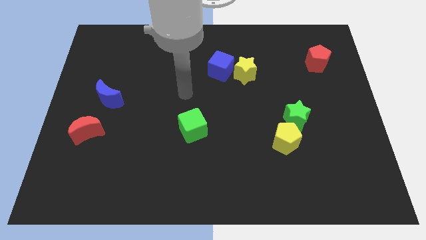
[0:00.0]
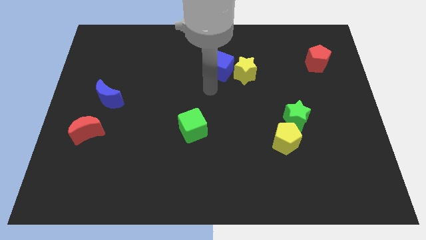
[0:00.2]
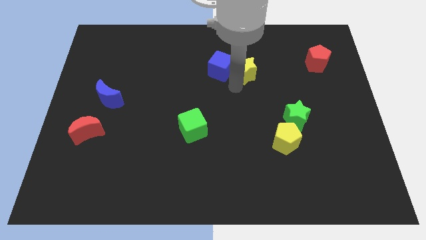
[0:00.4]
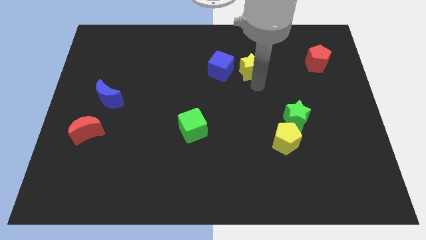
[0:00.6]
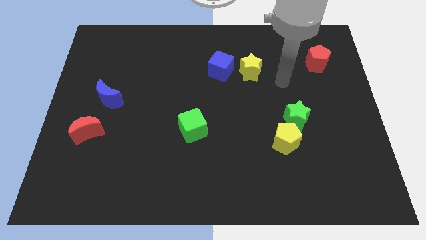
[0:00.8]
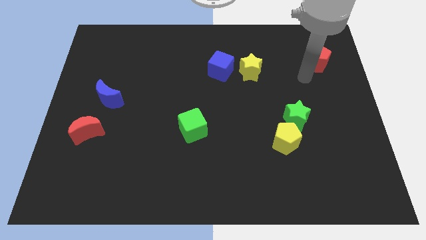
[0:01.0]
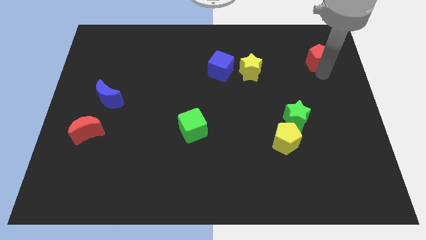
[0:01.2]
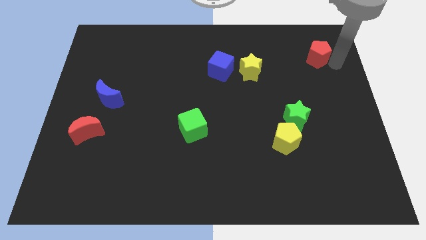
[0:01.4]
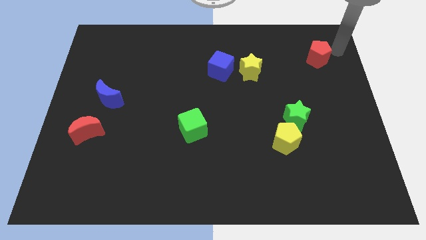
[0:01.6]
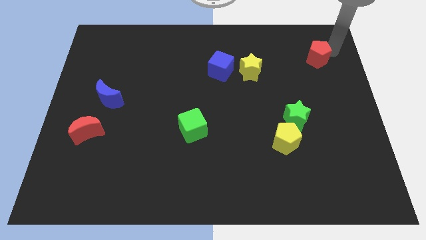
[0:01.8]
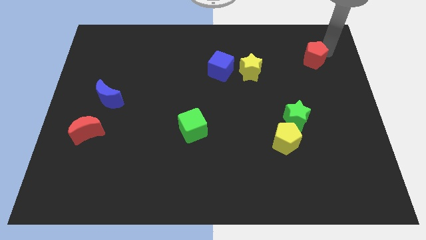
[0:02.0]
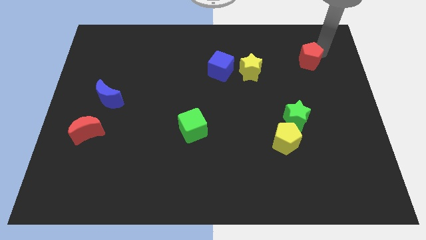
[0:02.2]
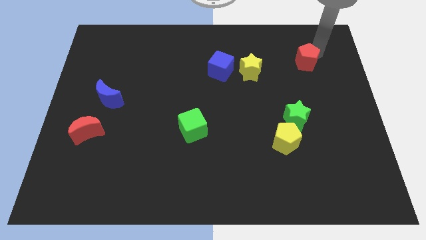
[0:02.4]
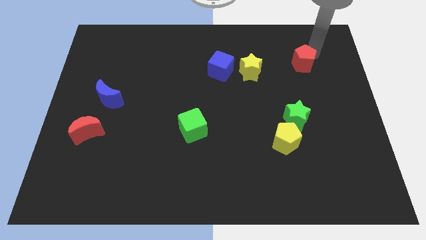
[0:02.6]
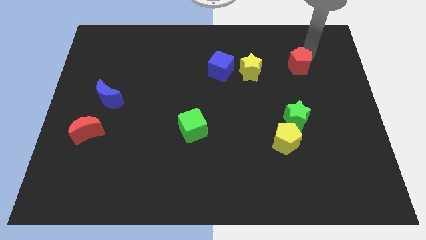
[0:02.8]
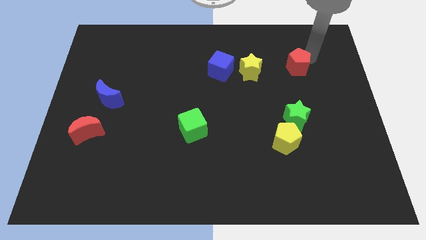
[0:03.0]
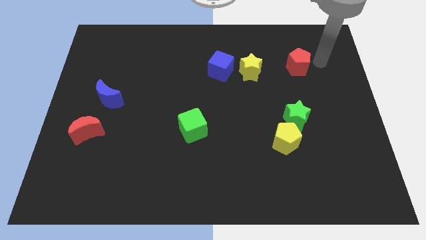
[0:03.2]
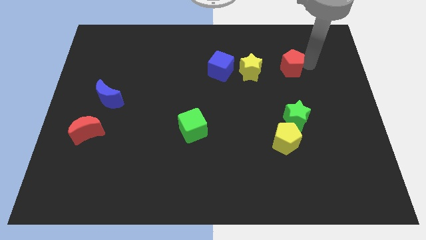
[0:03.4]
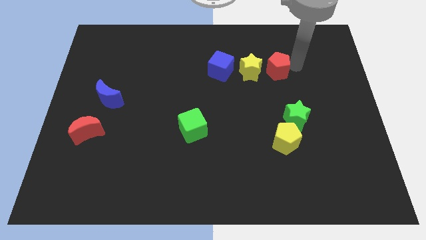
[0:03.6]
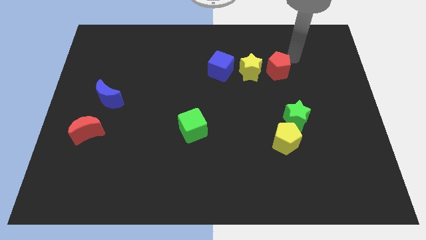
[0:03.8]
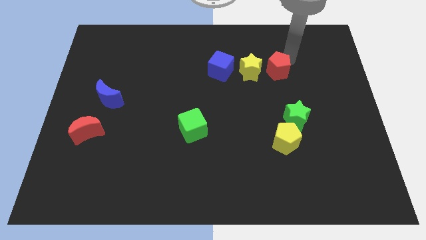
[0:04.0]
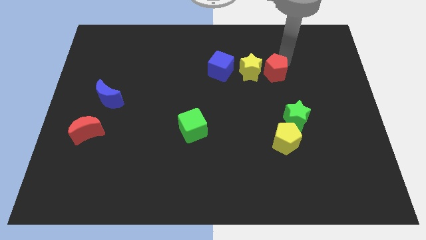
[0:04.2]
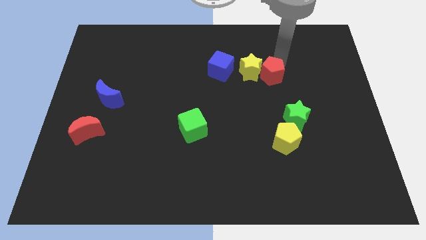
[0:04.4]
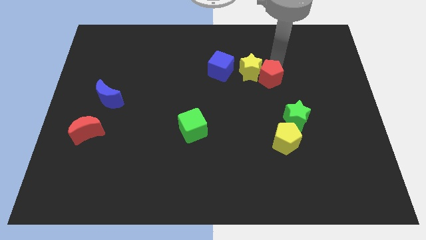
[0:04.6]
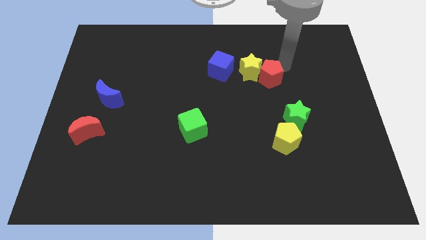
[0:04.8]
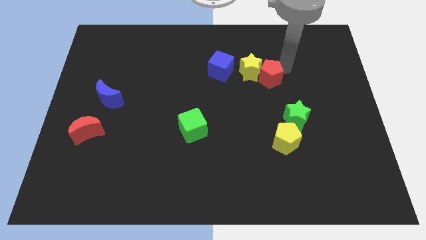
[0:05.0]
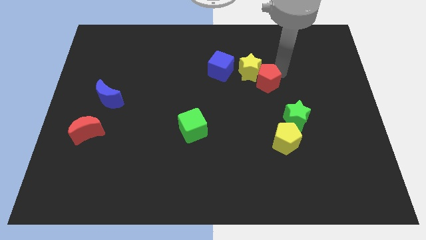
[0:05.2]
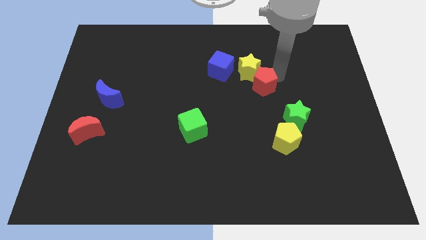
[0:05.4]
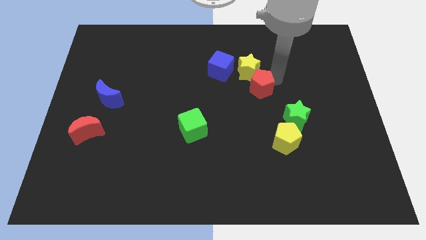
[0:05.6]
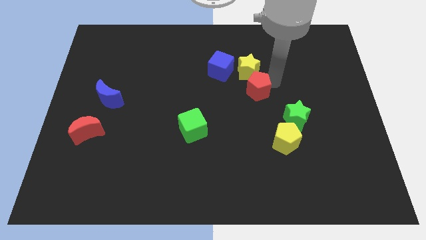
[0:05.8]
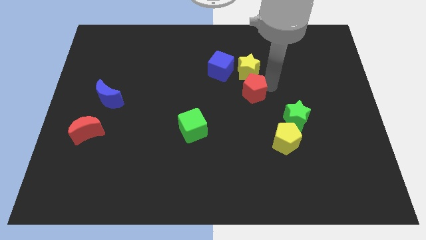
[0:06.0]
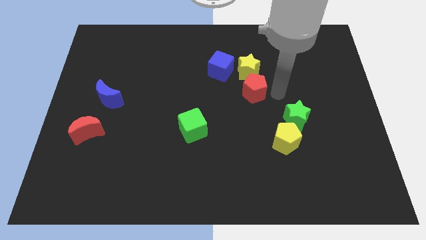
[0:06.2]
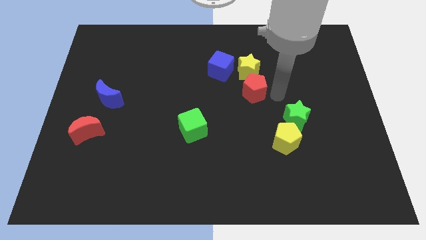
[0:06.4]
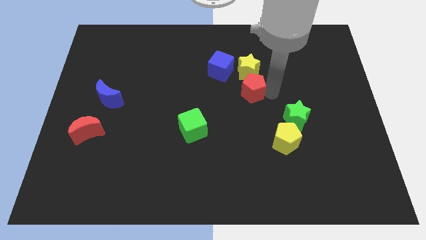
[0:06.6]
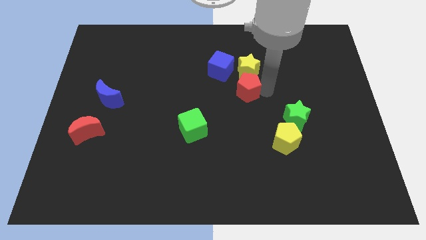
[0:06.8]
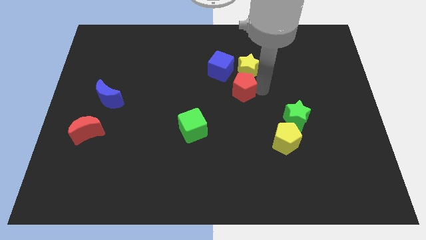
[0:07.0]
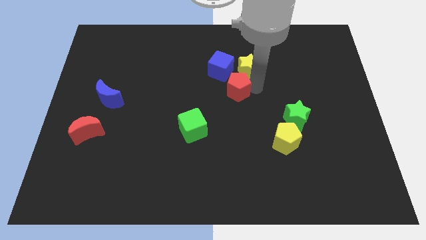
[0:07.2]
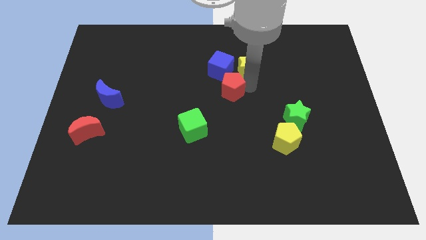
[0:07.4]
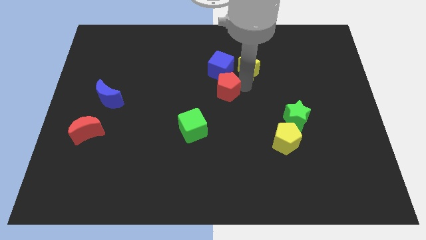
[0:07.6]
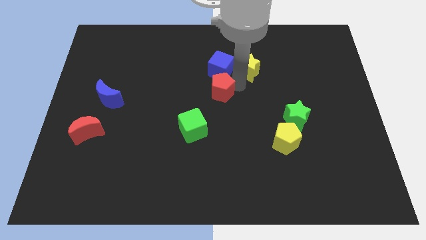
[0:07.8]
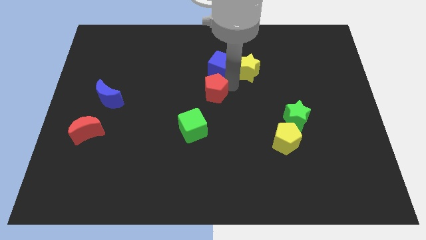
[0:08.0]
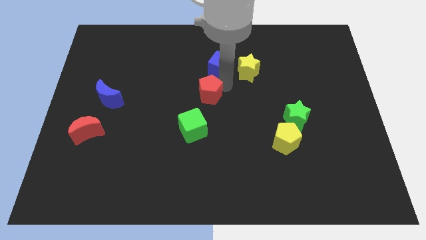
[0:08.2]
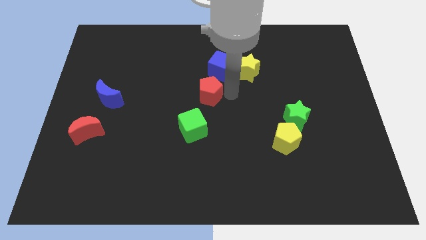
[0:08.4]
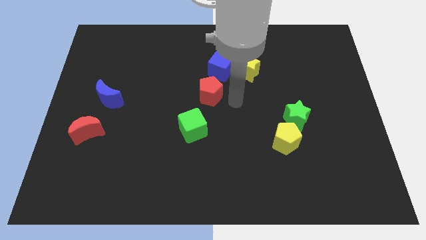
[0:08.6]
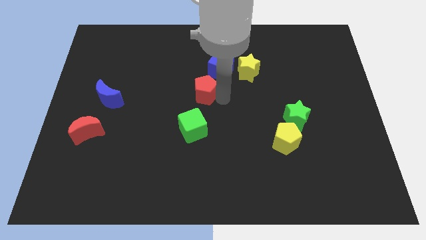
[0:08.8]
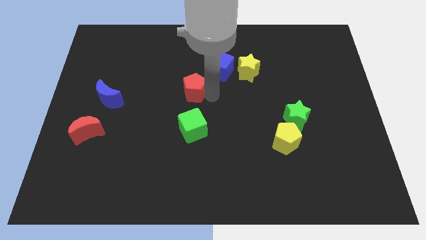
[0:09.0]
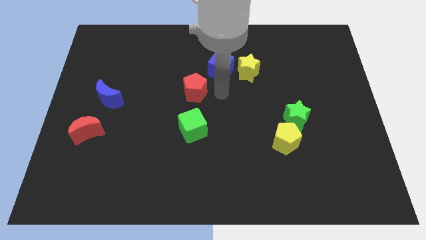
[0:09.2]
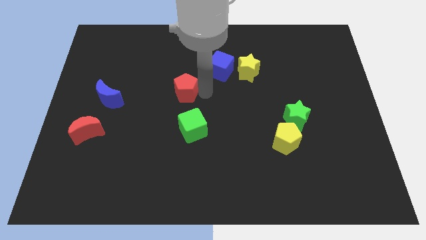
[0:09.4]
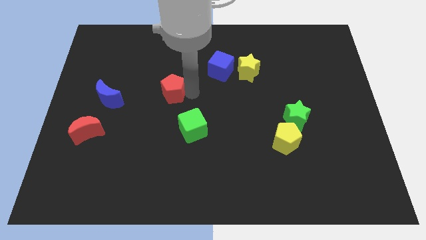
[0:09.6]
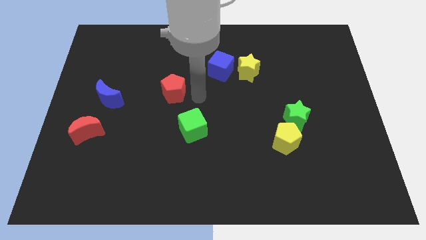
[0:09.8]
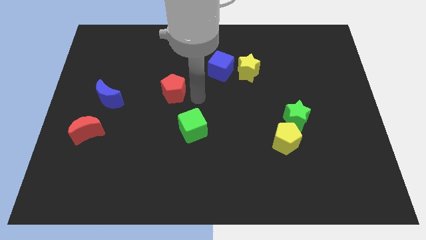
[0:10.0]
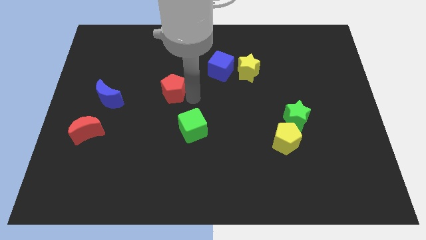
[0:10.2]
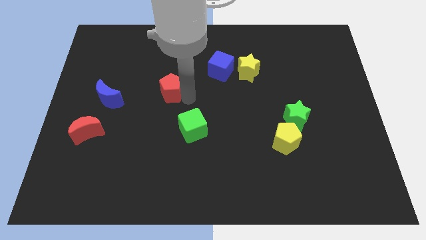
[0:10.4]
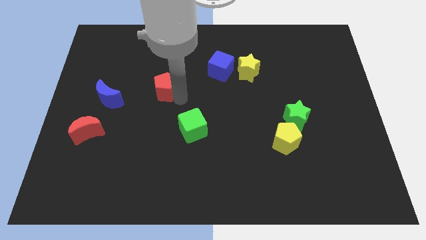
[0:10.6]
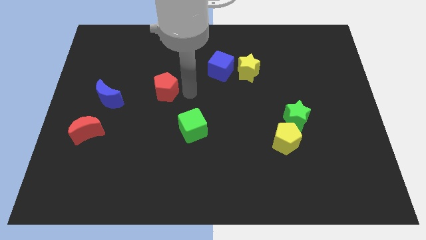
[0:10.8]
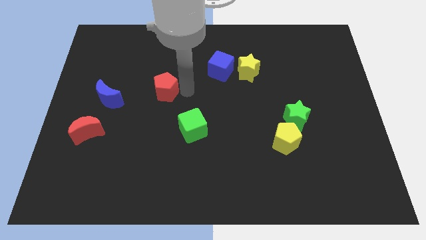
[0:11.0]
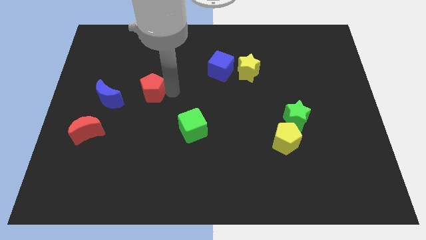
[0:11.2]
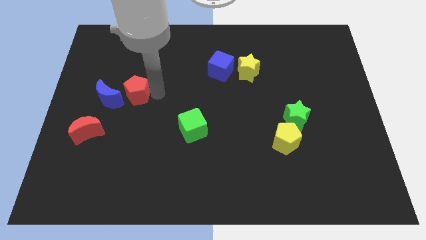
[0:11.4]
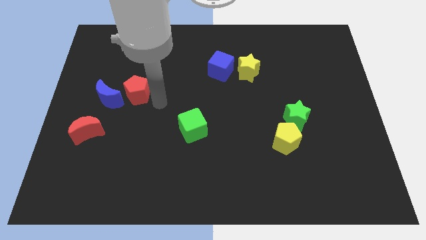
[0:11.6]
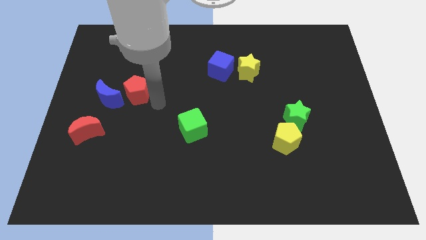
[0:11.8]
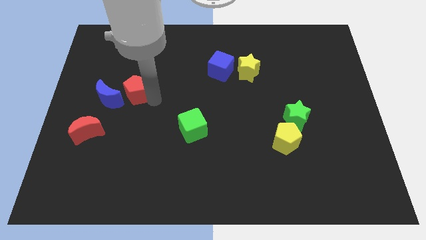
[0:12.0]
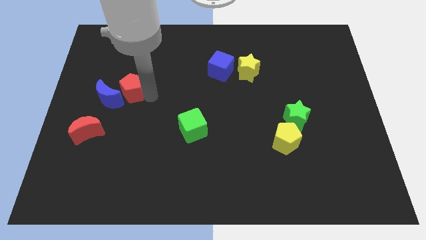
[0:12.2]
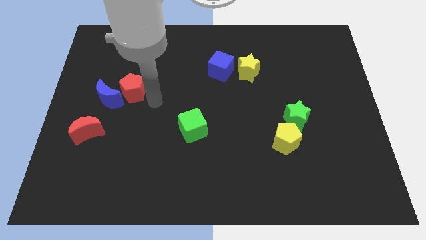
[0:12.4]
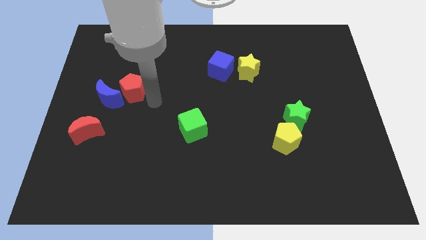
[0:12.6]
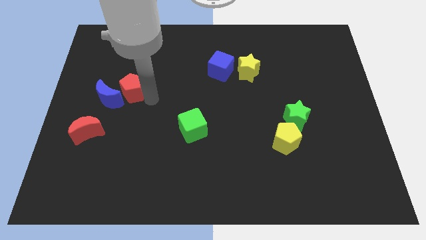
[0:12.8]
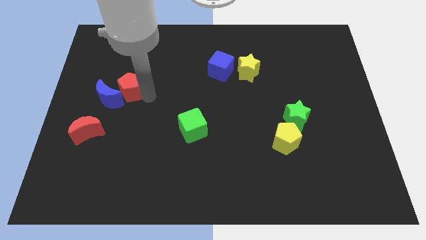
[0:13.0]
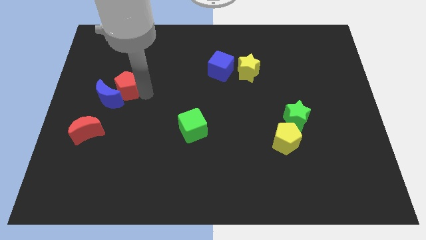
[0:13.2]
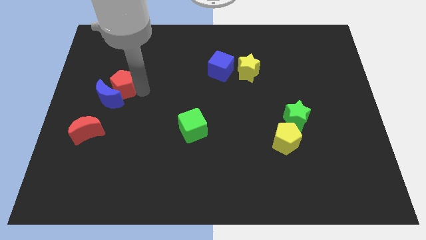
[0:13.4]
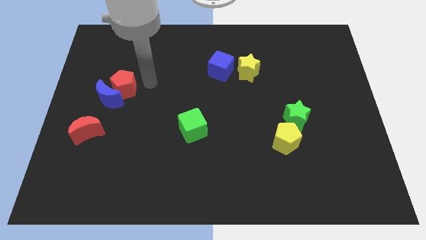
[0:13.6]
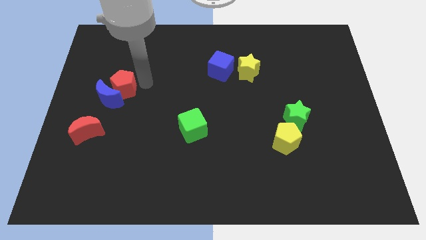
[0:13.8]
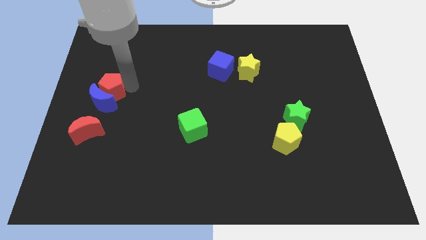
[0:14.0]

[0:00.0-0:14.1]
push the red pentagon to the top side of the red moon

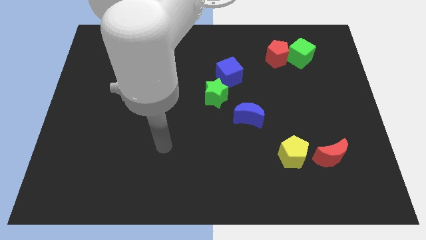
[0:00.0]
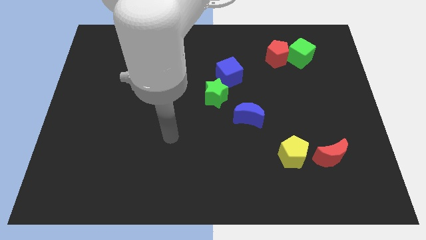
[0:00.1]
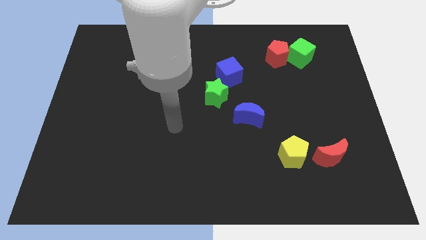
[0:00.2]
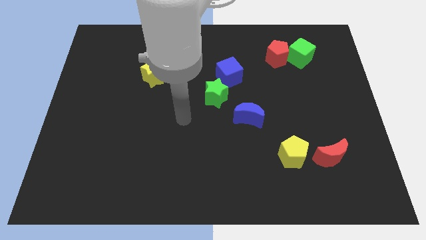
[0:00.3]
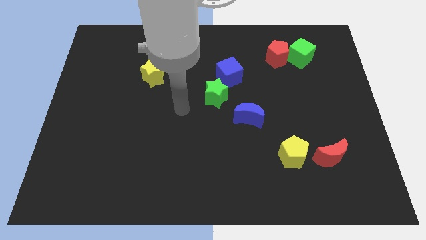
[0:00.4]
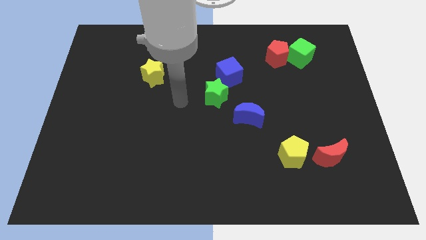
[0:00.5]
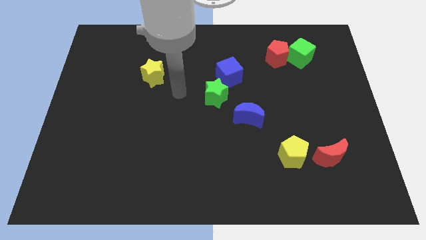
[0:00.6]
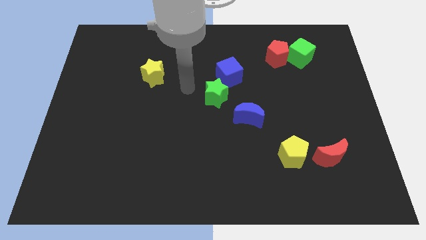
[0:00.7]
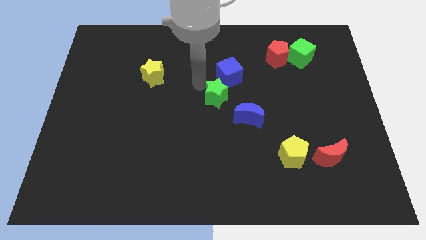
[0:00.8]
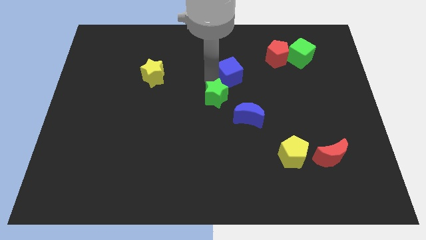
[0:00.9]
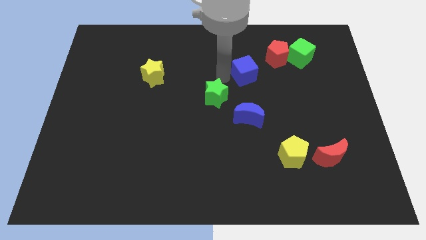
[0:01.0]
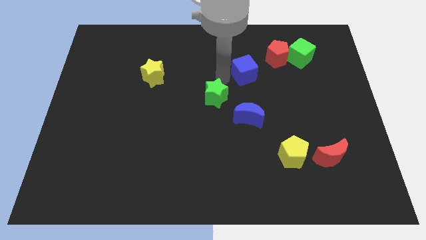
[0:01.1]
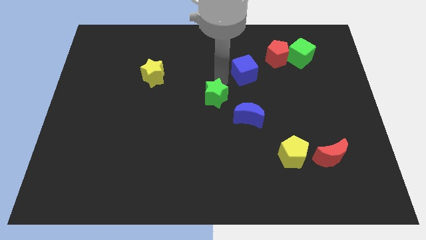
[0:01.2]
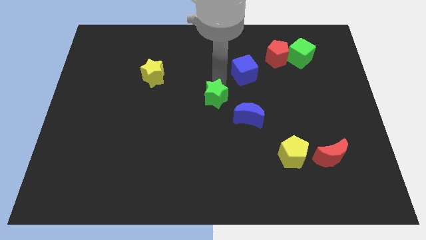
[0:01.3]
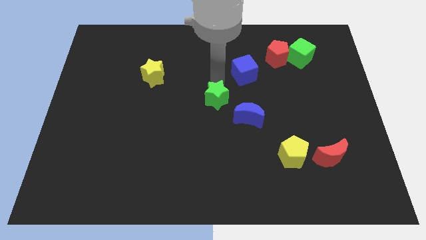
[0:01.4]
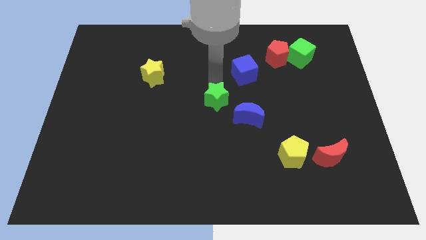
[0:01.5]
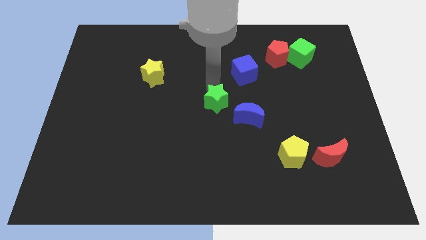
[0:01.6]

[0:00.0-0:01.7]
push the green star to the left of the blue moon
